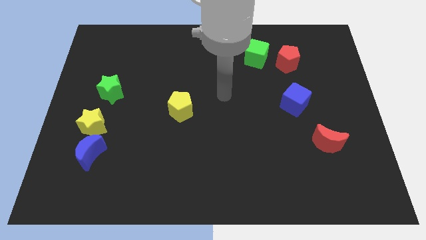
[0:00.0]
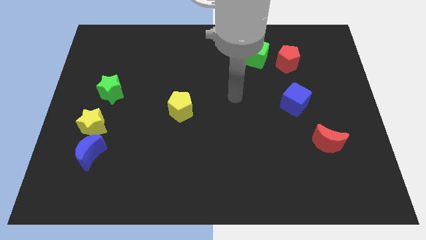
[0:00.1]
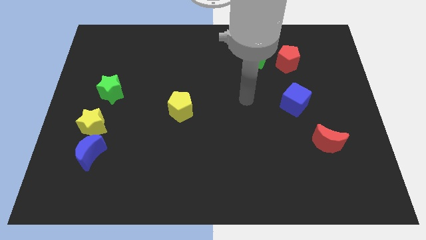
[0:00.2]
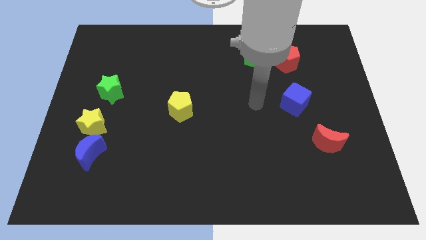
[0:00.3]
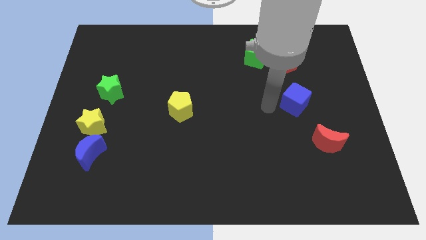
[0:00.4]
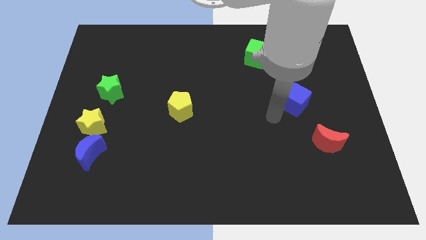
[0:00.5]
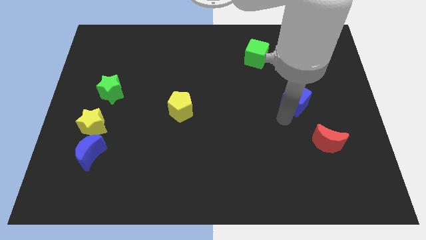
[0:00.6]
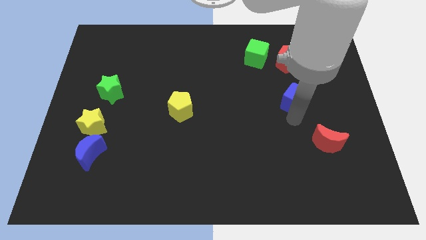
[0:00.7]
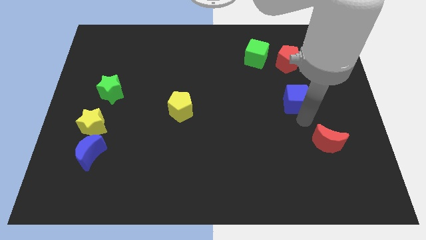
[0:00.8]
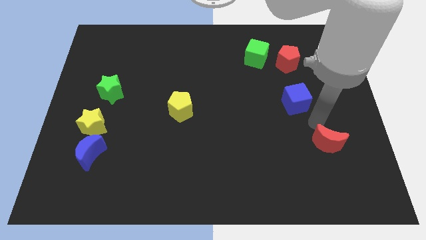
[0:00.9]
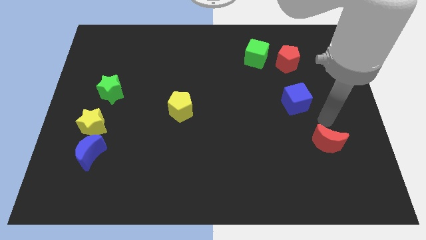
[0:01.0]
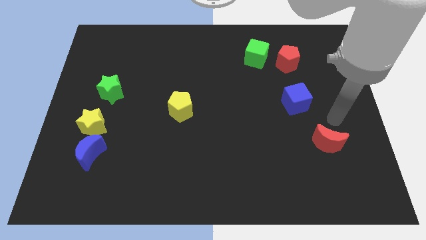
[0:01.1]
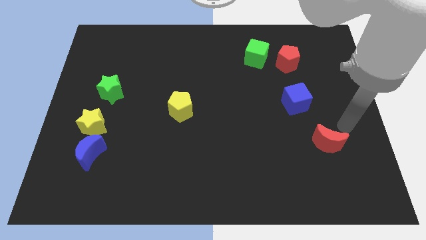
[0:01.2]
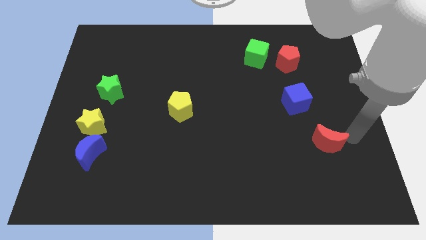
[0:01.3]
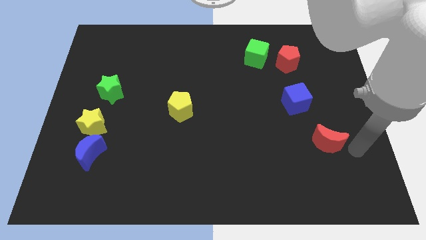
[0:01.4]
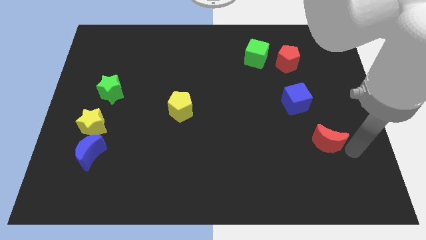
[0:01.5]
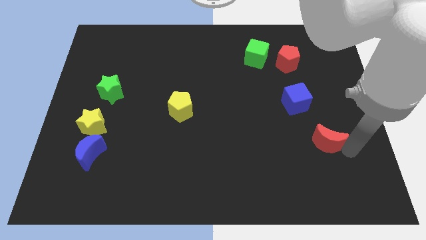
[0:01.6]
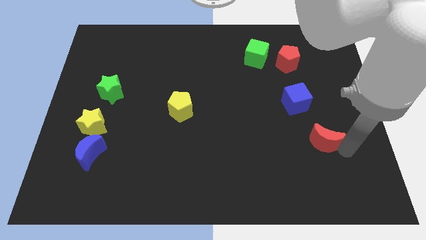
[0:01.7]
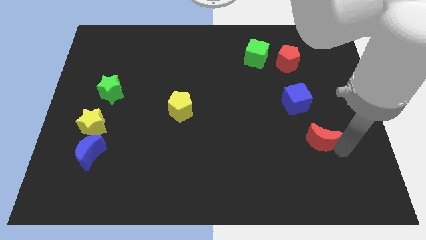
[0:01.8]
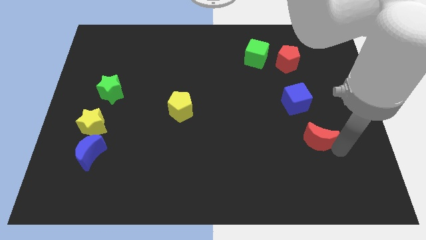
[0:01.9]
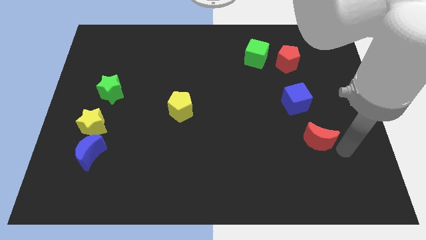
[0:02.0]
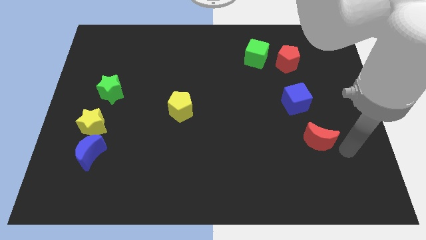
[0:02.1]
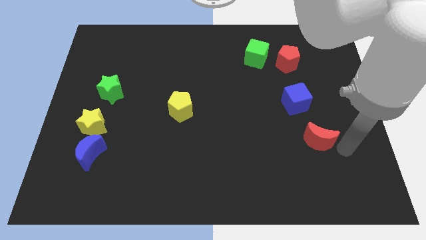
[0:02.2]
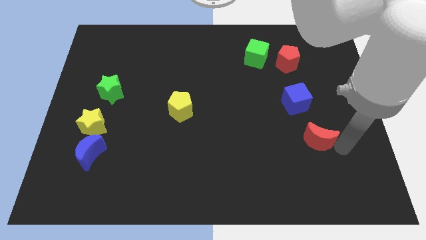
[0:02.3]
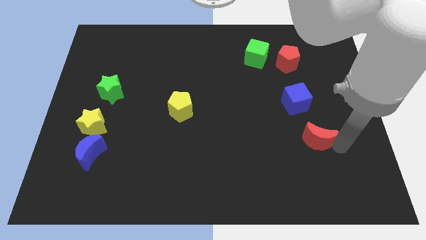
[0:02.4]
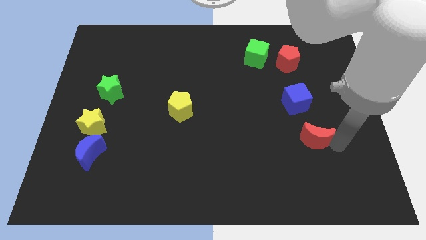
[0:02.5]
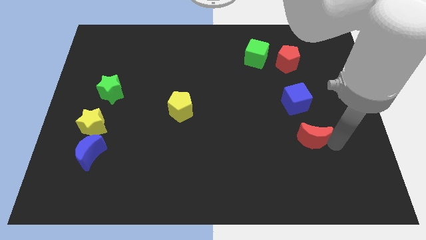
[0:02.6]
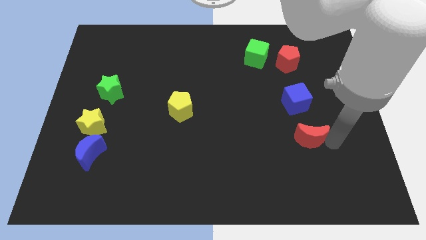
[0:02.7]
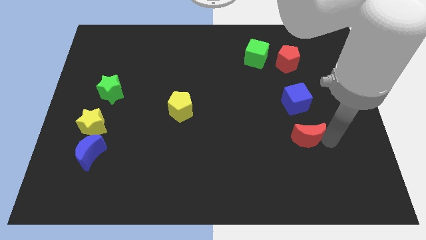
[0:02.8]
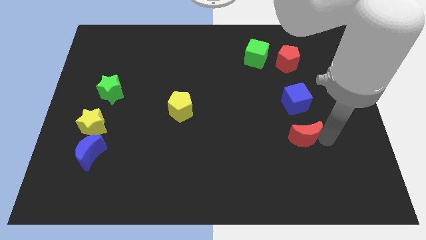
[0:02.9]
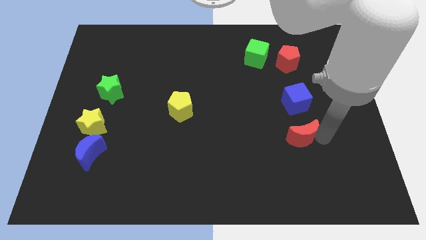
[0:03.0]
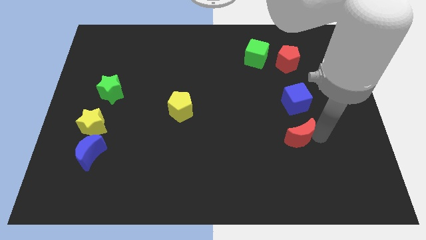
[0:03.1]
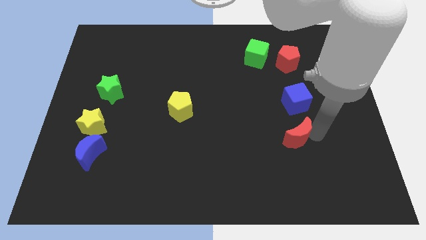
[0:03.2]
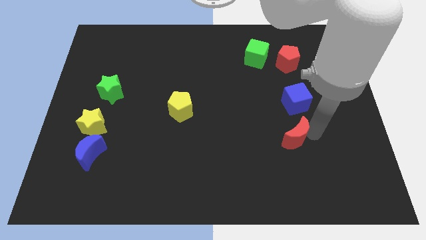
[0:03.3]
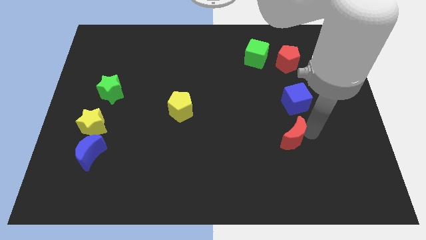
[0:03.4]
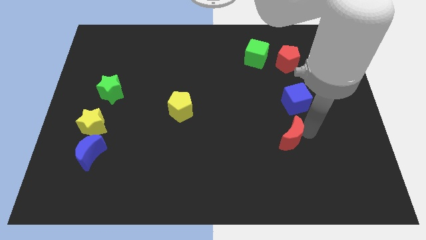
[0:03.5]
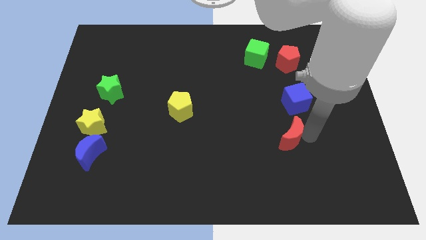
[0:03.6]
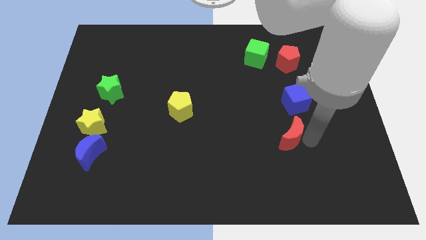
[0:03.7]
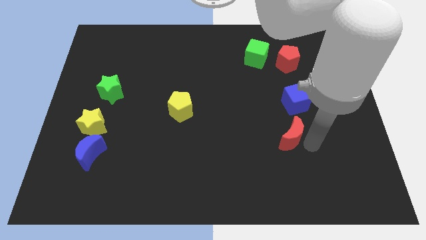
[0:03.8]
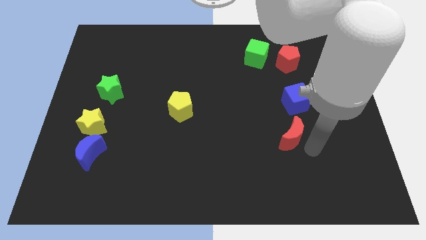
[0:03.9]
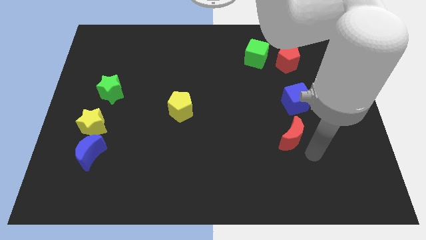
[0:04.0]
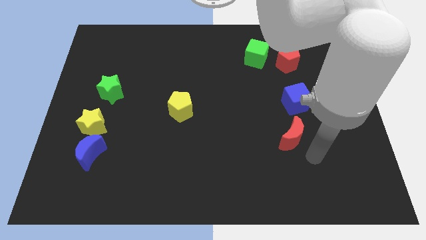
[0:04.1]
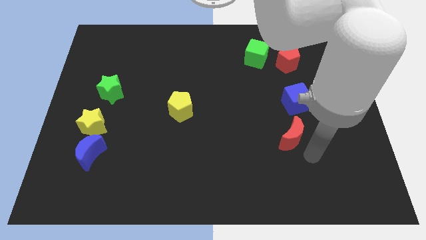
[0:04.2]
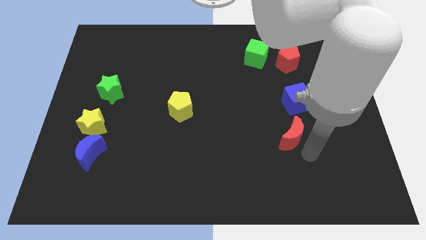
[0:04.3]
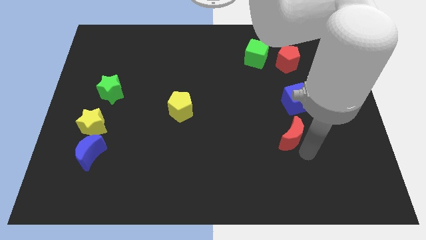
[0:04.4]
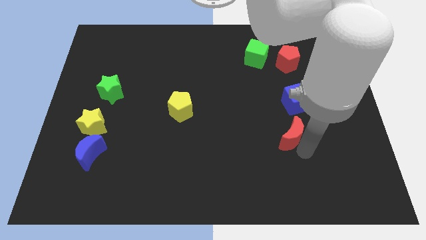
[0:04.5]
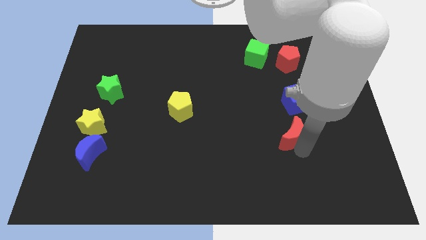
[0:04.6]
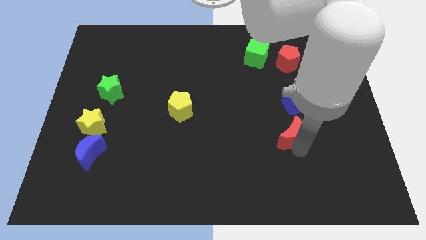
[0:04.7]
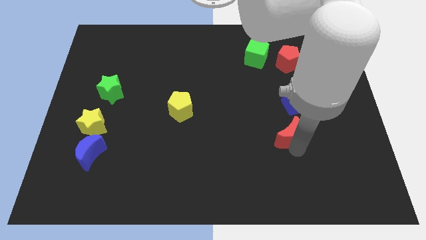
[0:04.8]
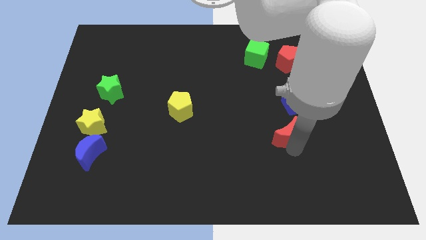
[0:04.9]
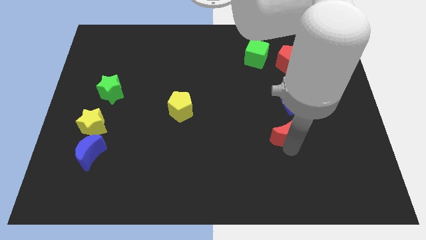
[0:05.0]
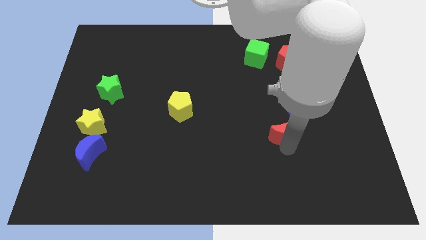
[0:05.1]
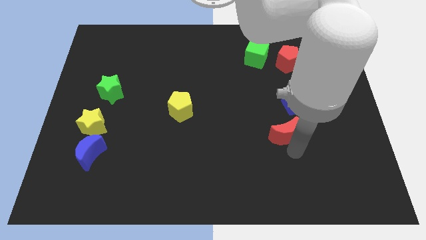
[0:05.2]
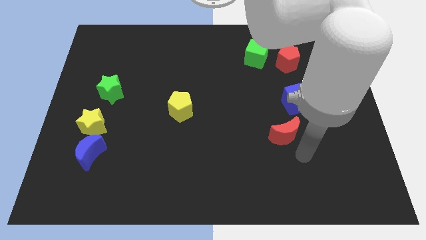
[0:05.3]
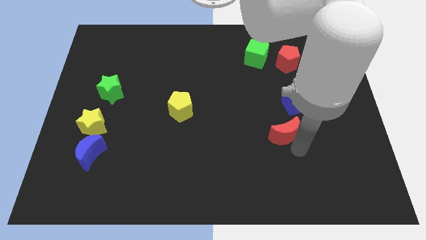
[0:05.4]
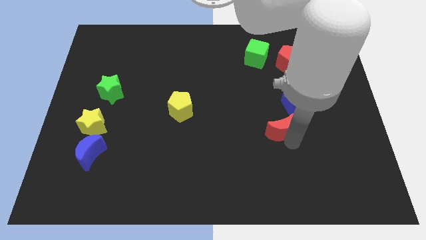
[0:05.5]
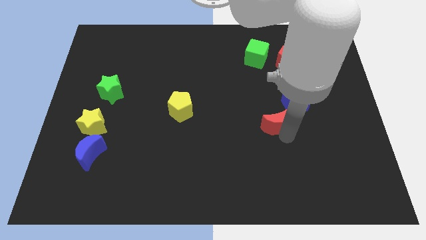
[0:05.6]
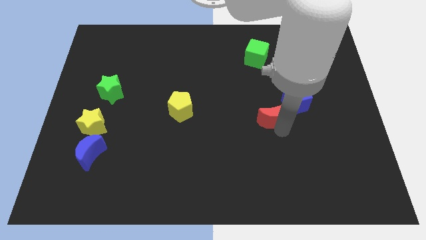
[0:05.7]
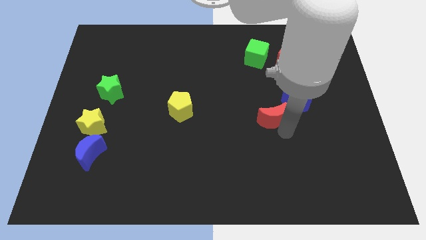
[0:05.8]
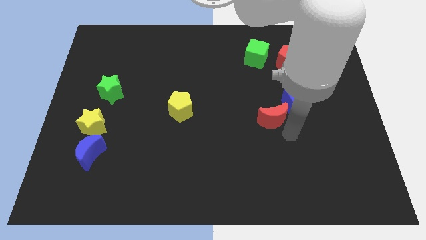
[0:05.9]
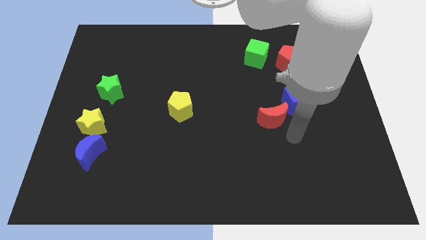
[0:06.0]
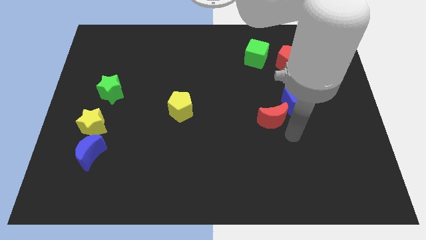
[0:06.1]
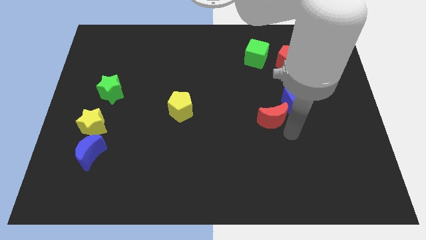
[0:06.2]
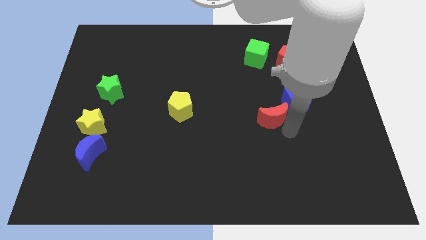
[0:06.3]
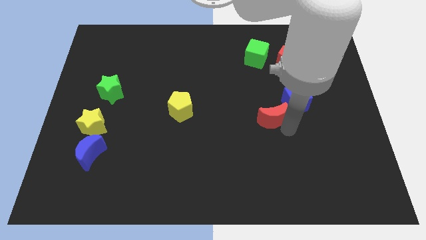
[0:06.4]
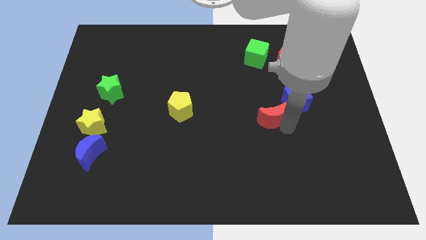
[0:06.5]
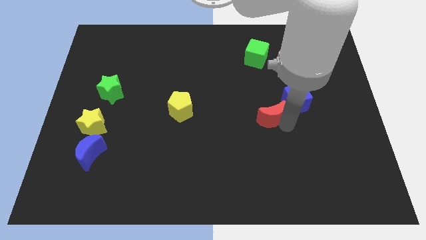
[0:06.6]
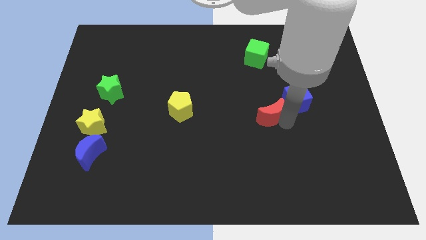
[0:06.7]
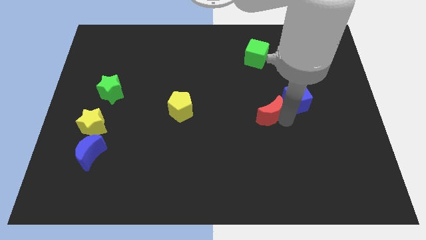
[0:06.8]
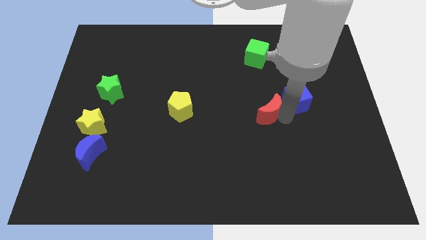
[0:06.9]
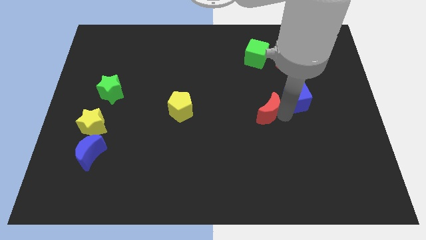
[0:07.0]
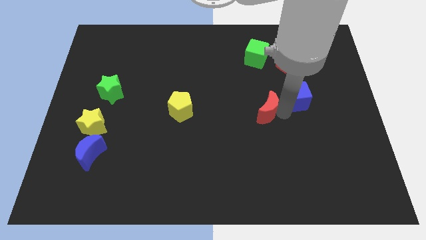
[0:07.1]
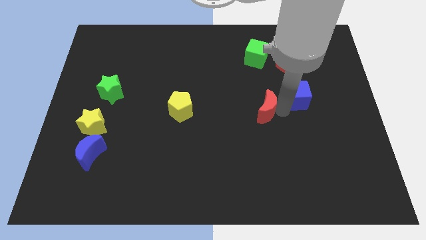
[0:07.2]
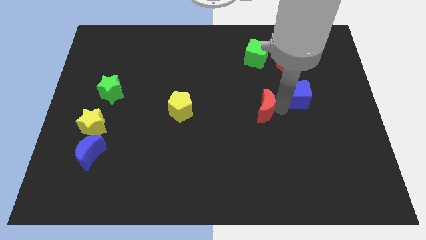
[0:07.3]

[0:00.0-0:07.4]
put the red moon to the middle
